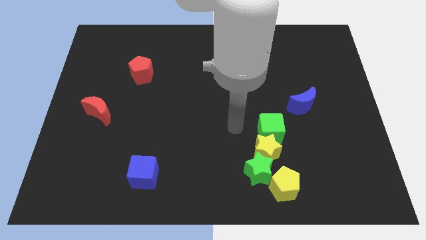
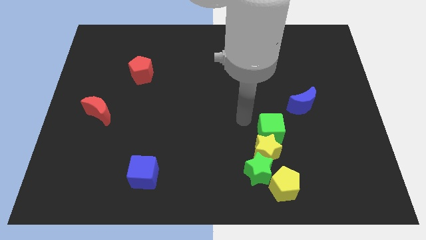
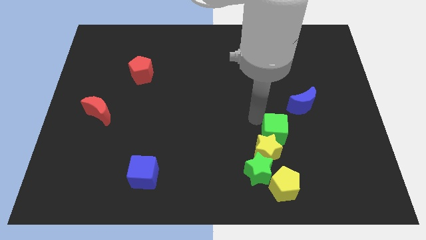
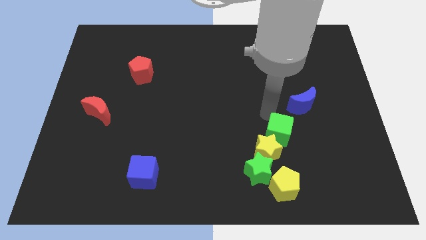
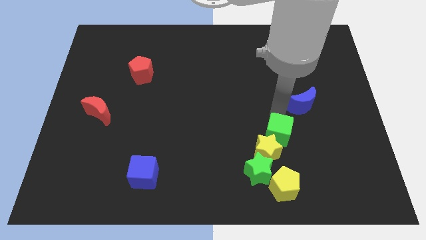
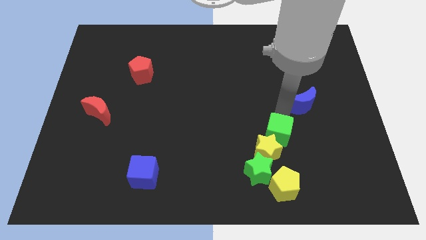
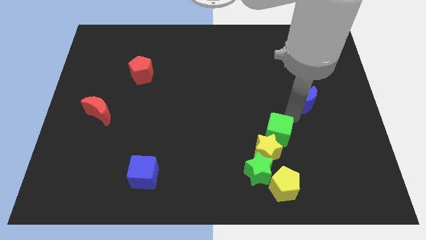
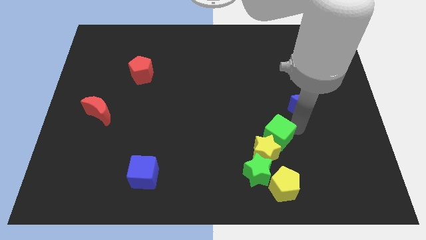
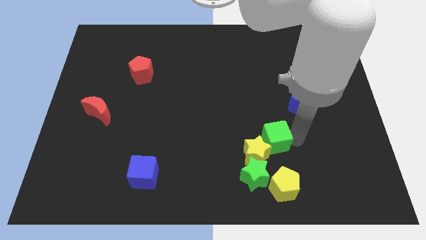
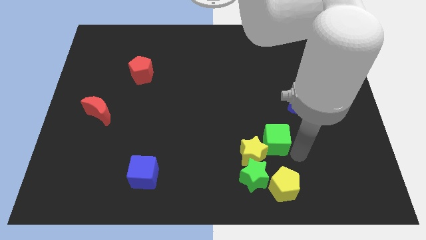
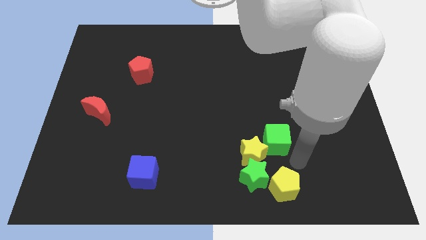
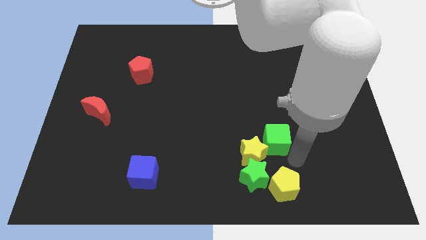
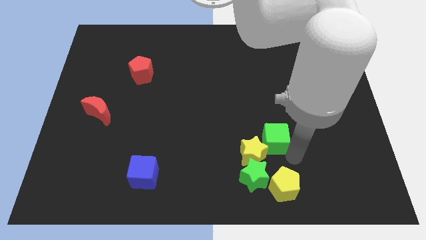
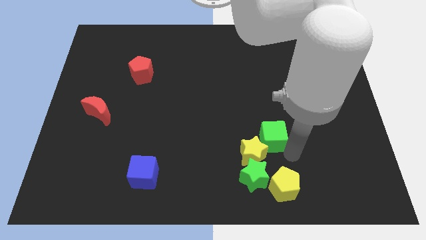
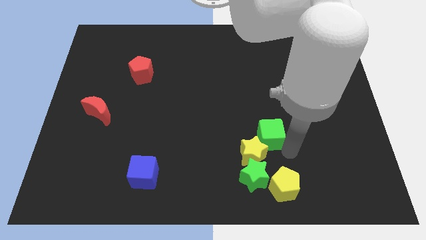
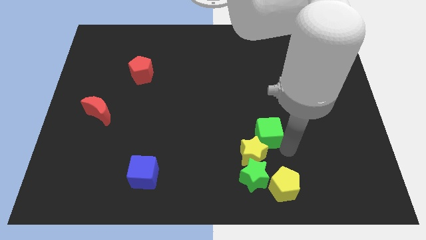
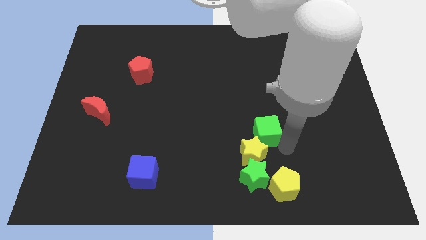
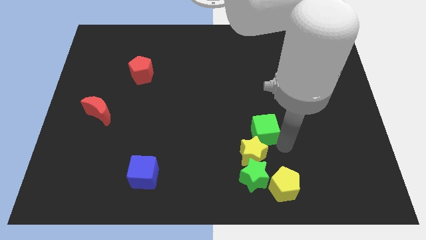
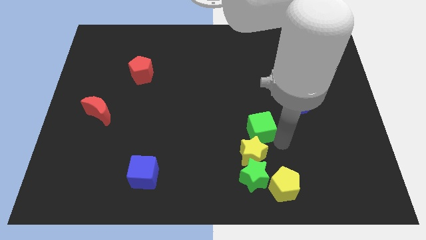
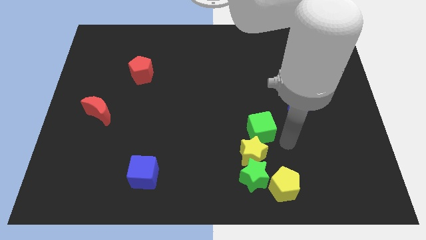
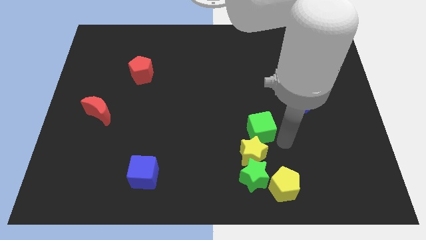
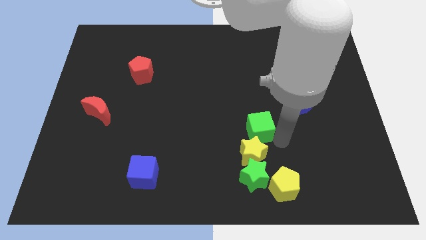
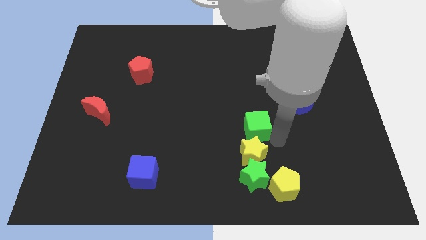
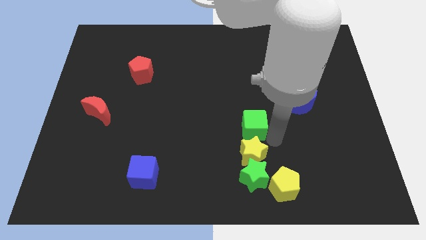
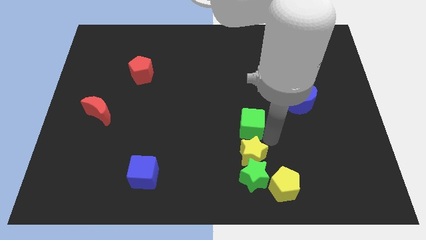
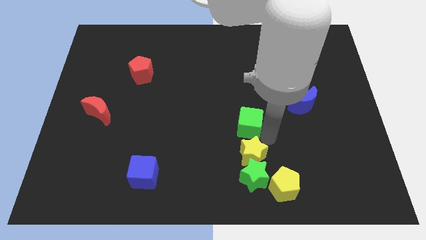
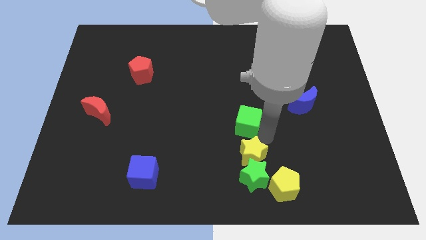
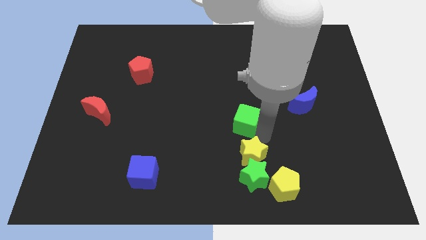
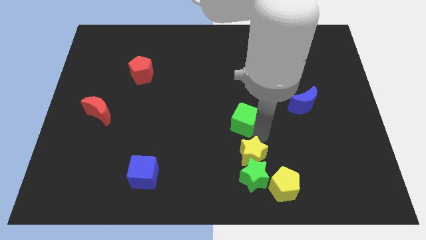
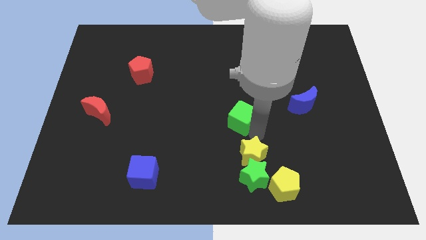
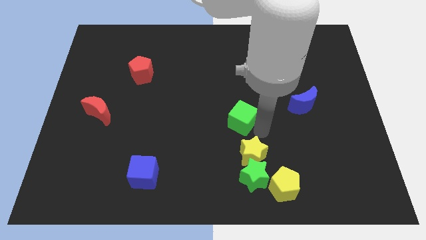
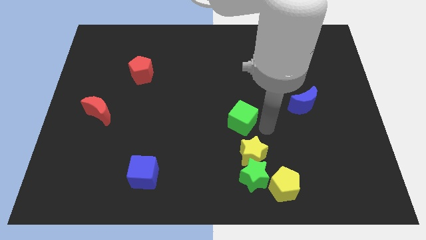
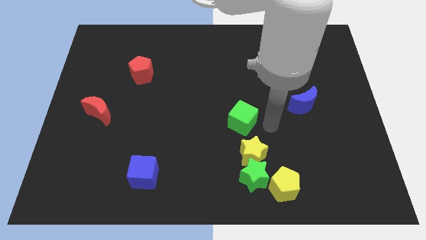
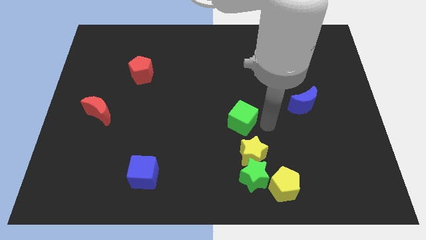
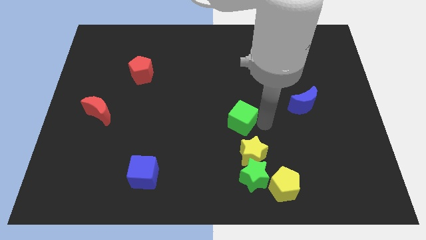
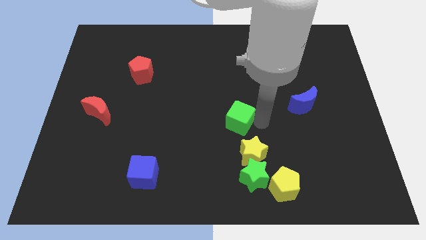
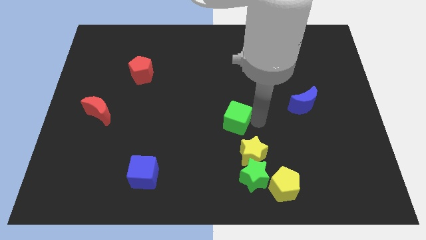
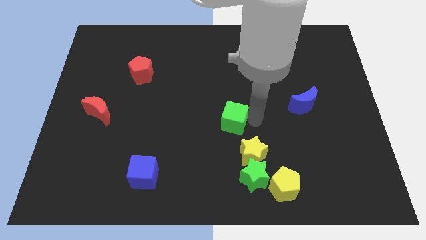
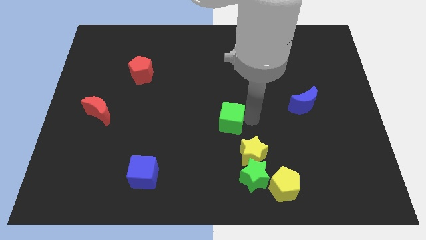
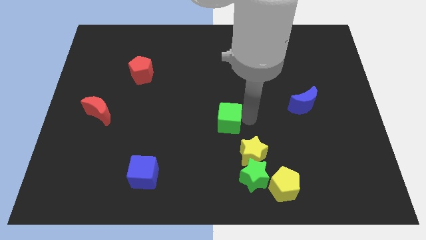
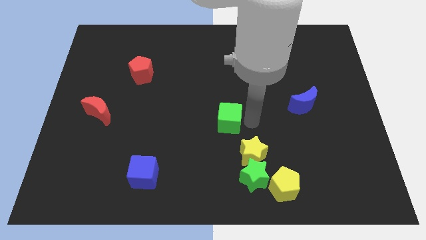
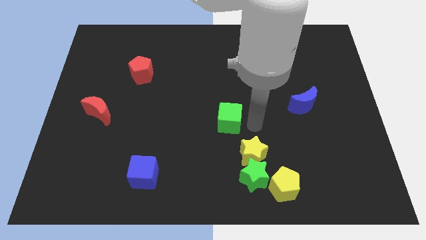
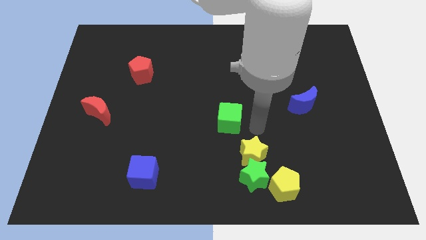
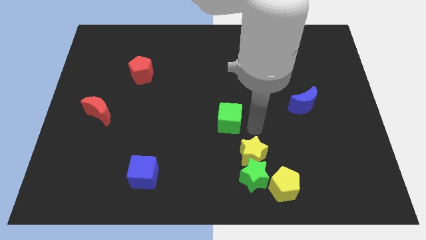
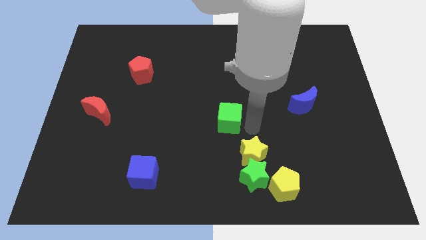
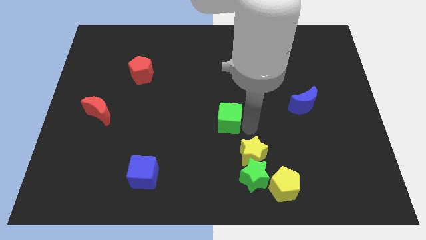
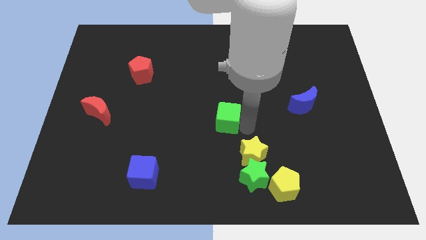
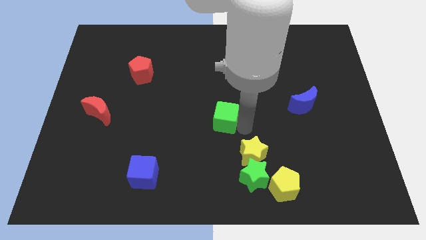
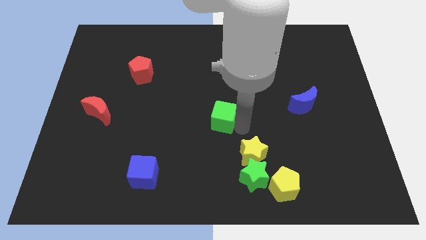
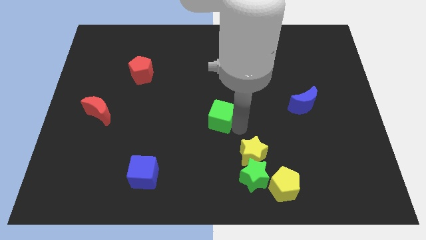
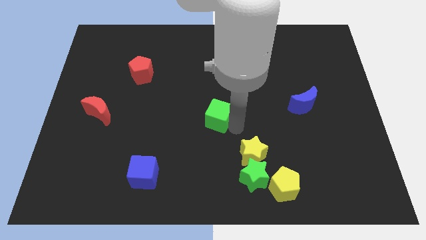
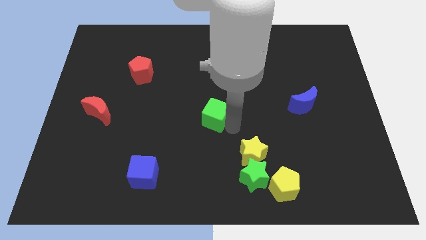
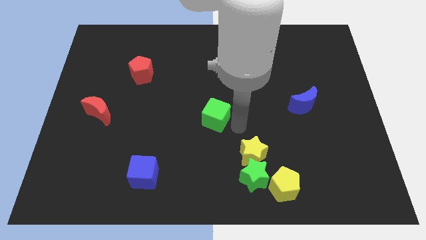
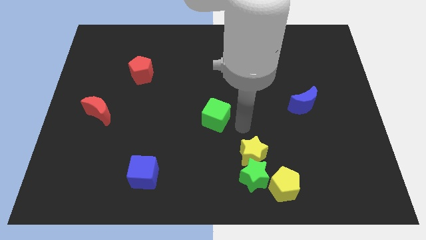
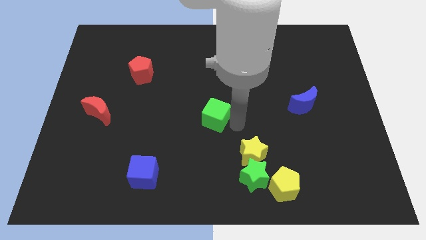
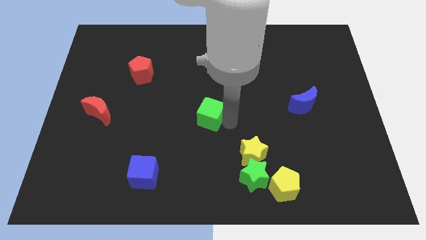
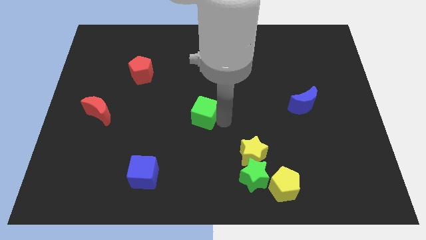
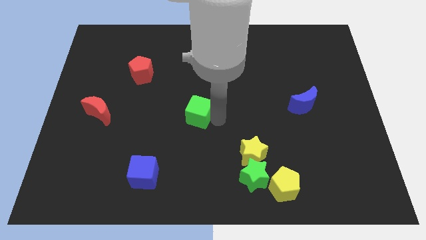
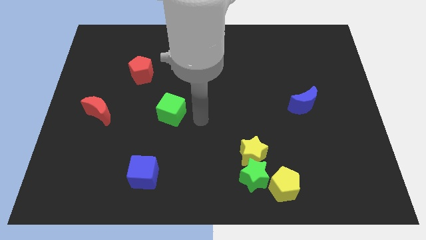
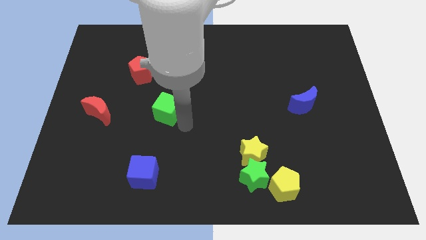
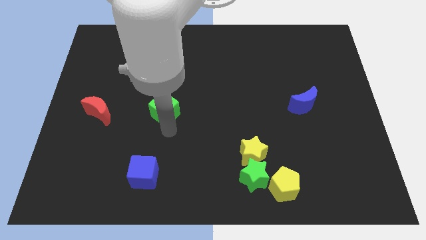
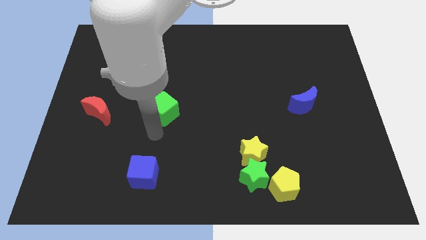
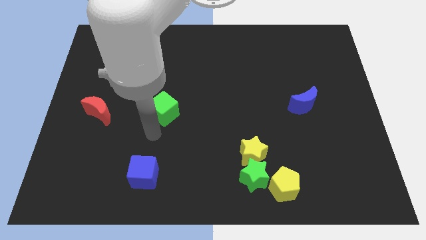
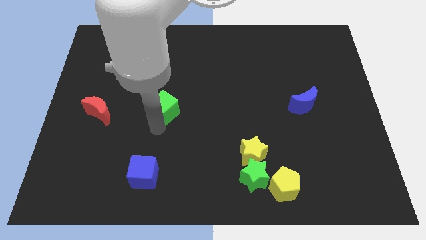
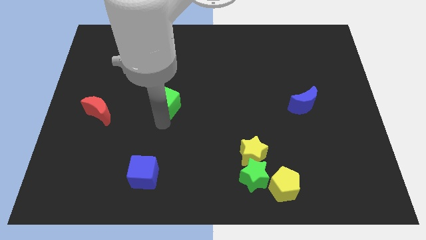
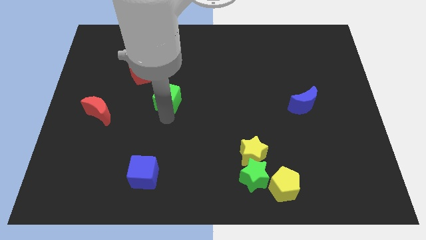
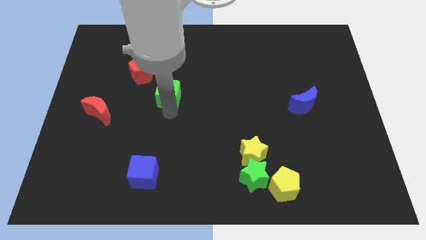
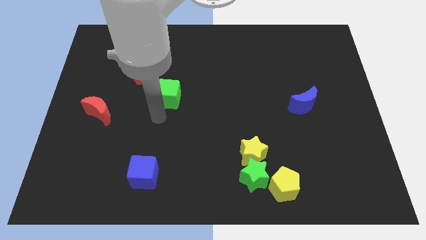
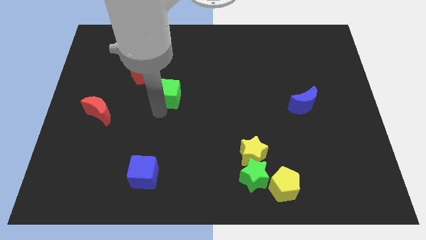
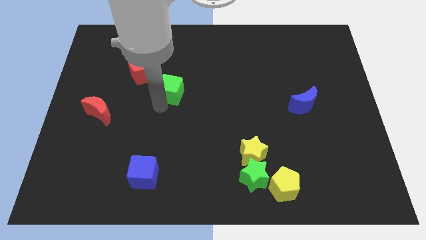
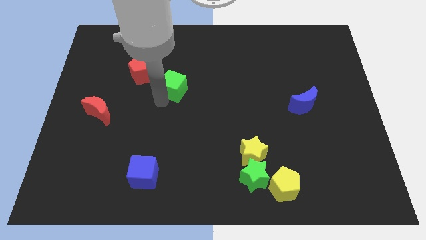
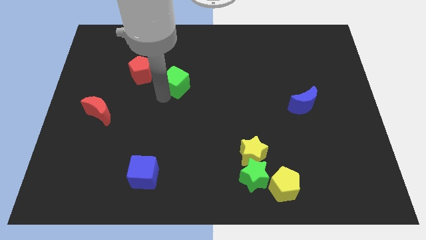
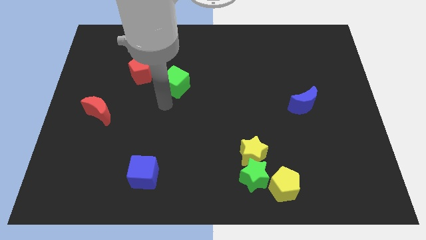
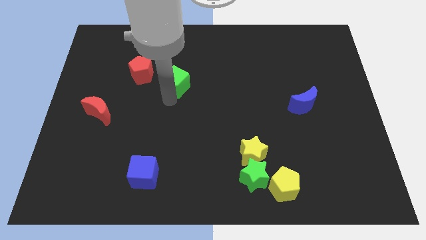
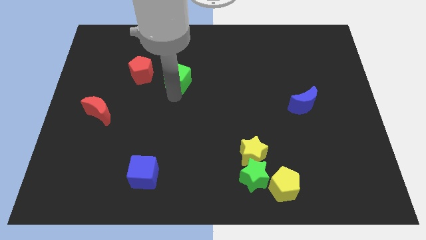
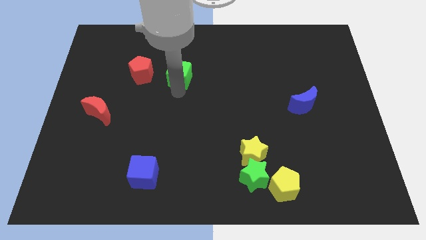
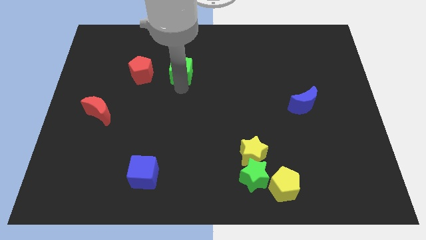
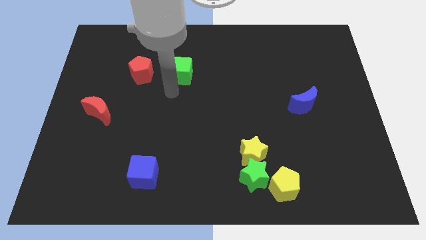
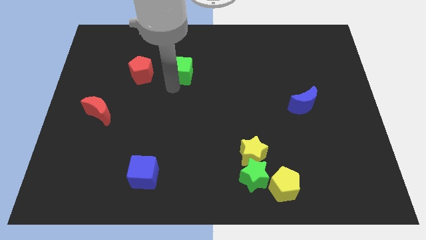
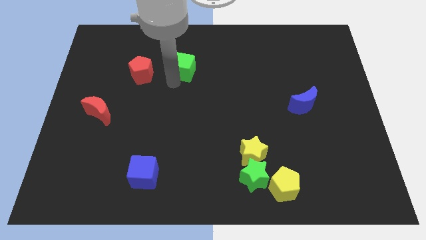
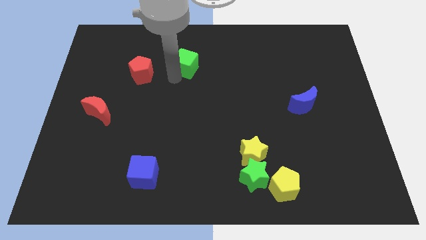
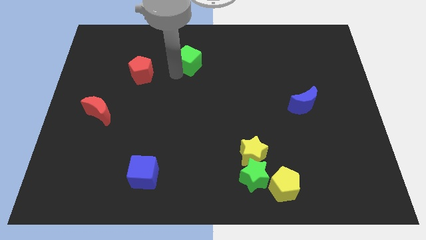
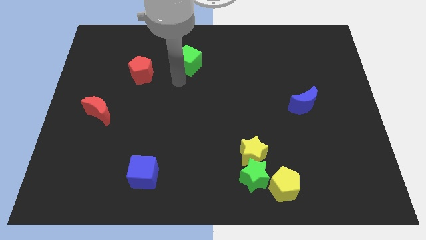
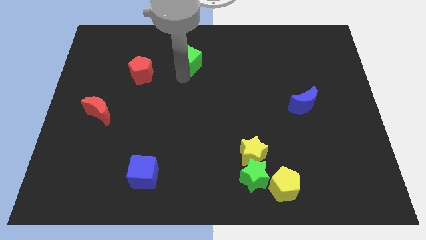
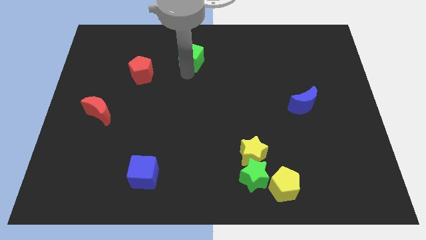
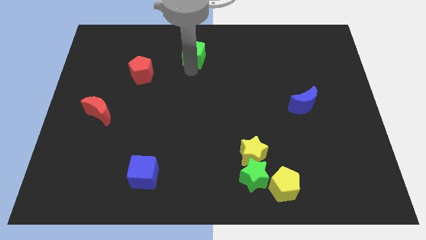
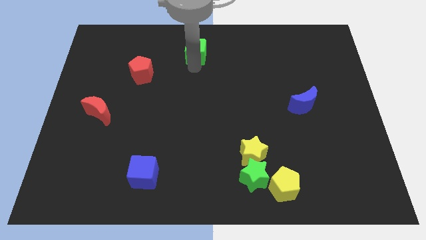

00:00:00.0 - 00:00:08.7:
move the green cube to the top side
